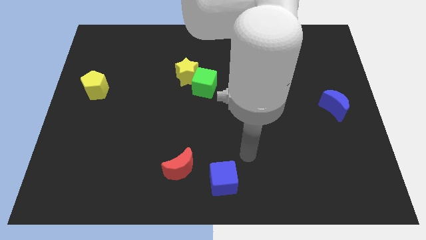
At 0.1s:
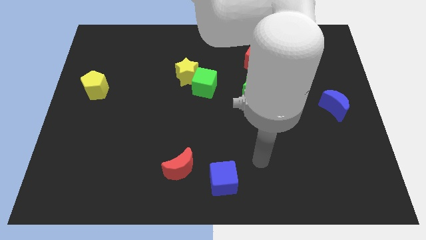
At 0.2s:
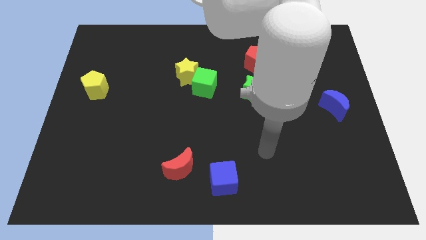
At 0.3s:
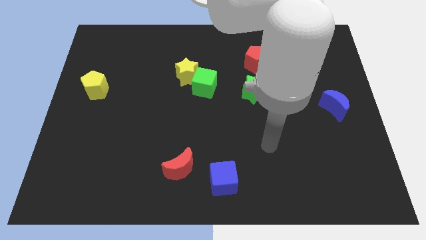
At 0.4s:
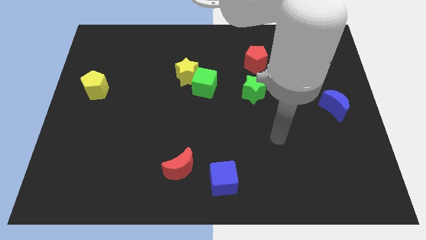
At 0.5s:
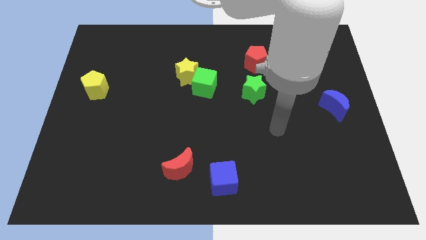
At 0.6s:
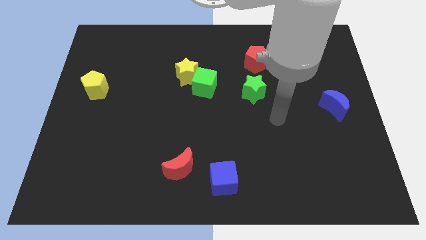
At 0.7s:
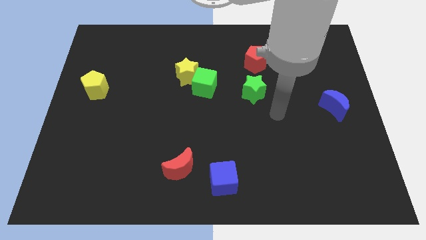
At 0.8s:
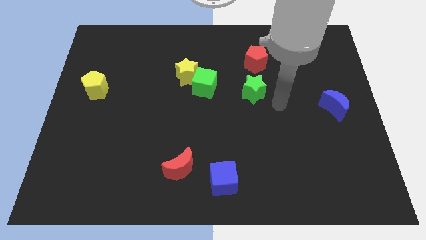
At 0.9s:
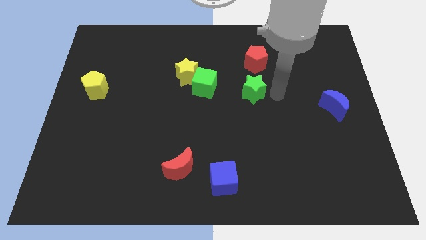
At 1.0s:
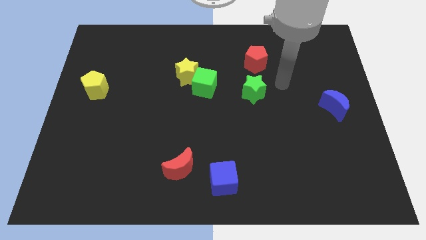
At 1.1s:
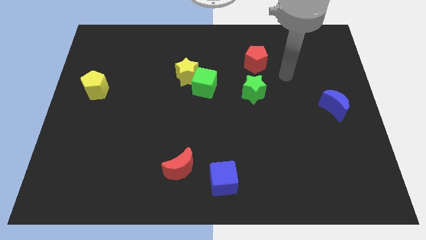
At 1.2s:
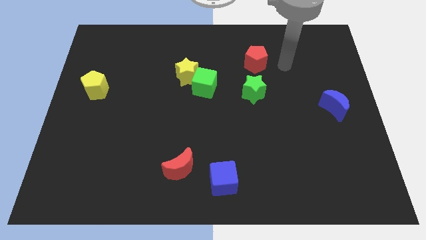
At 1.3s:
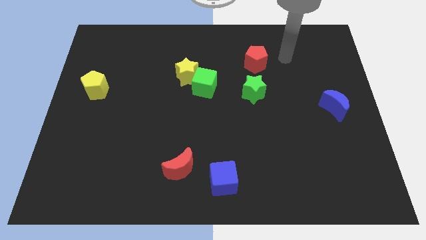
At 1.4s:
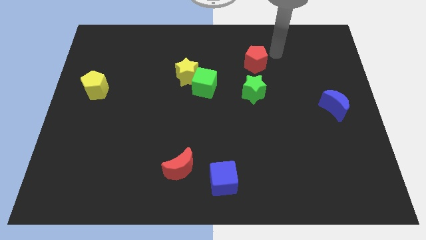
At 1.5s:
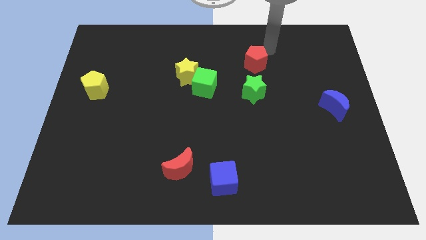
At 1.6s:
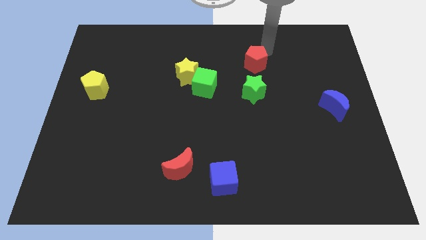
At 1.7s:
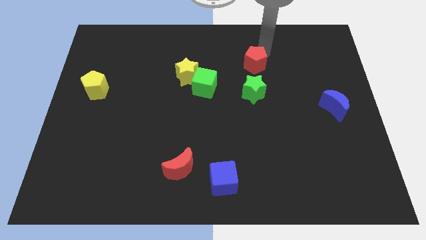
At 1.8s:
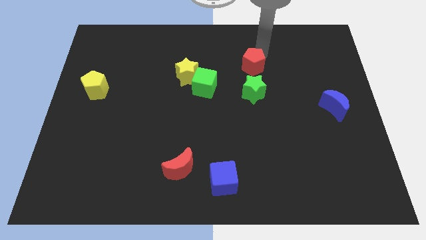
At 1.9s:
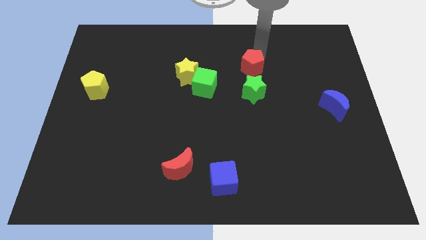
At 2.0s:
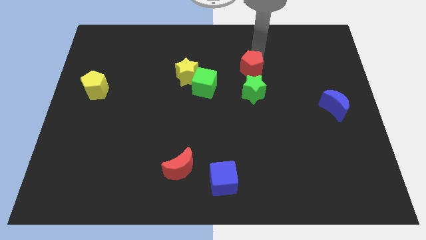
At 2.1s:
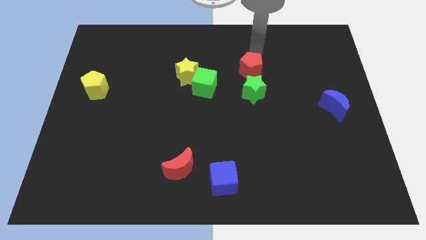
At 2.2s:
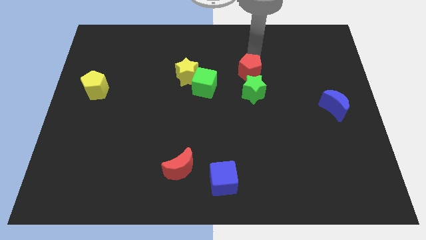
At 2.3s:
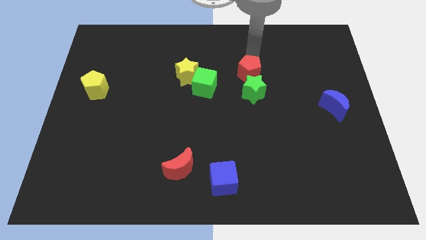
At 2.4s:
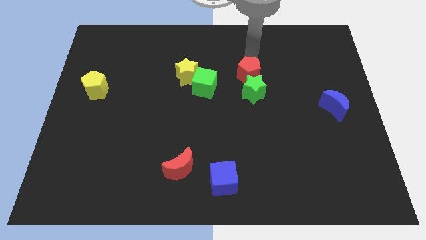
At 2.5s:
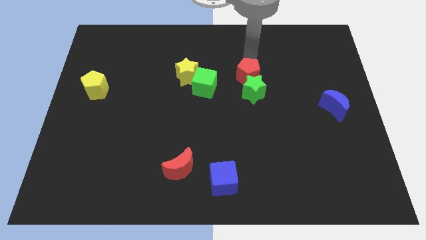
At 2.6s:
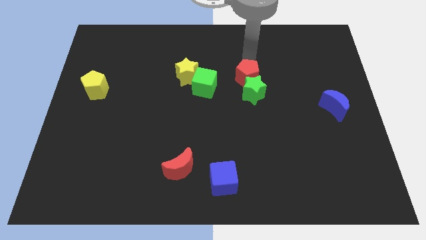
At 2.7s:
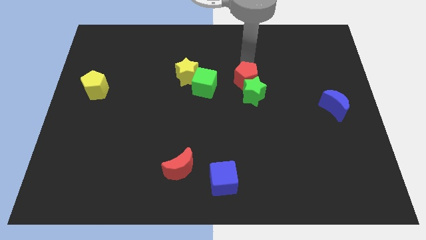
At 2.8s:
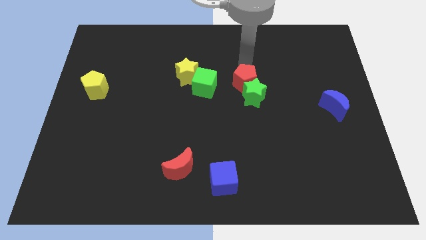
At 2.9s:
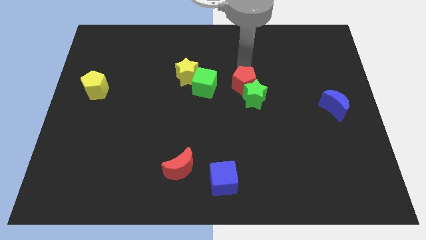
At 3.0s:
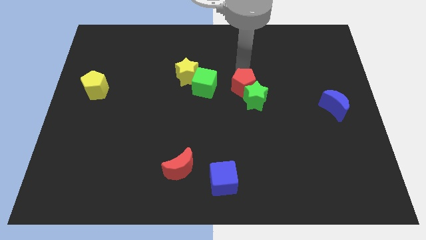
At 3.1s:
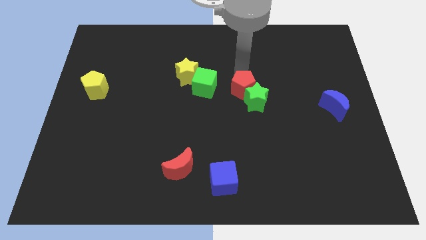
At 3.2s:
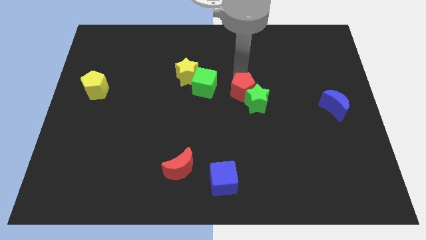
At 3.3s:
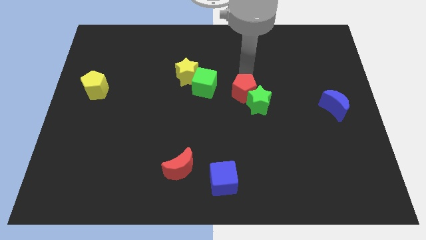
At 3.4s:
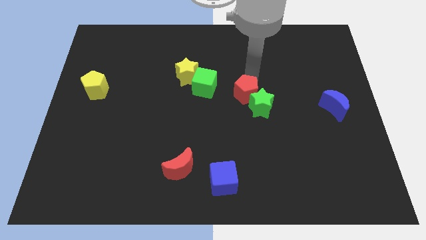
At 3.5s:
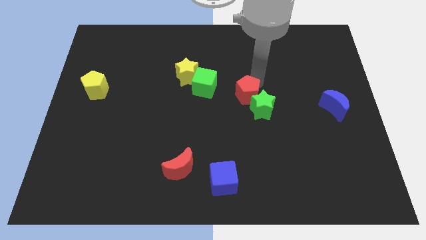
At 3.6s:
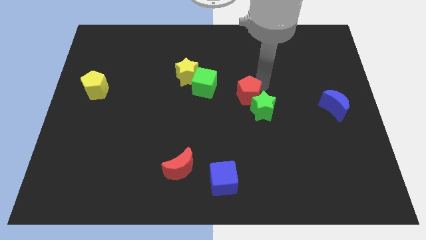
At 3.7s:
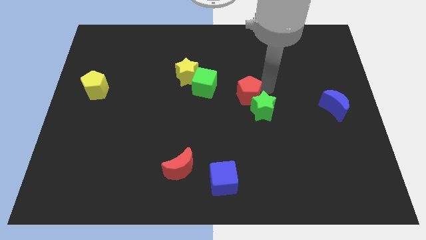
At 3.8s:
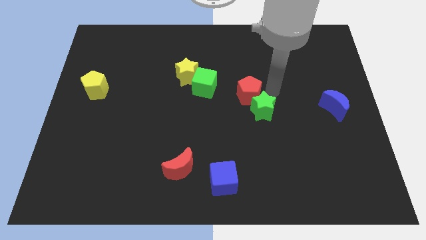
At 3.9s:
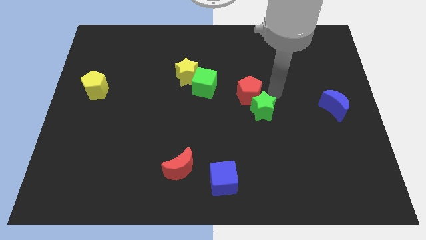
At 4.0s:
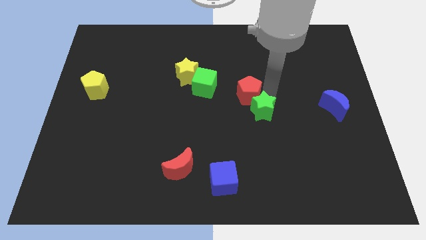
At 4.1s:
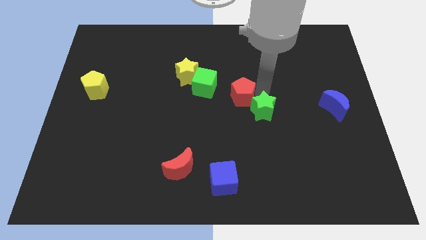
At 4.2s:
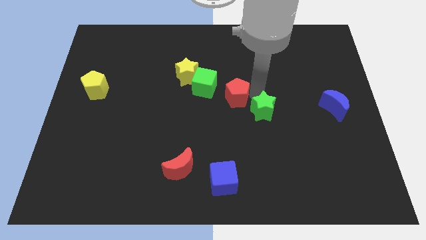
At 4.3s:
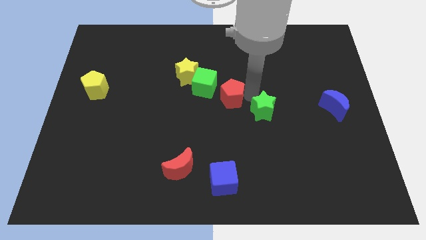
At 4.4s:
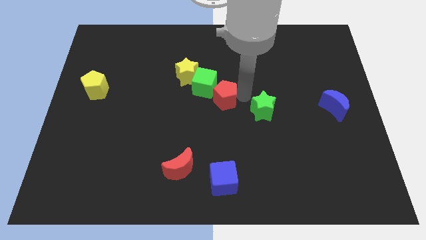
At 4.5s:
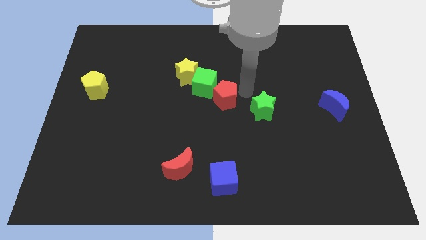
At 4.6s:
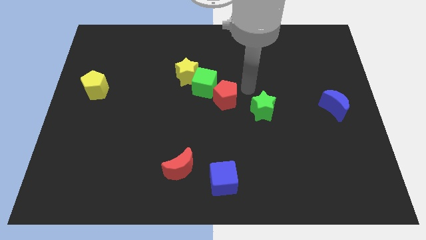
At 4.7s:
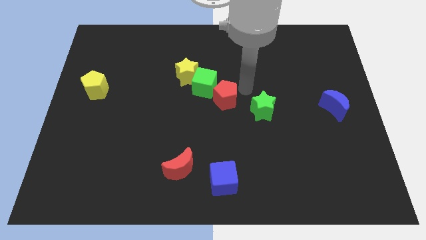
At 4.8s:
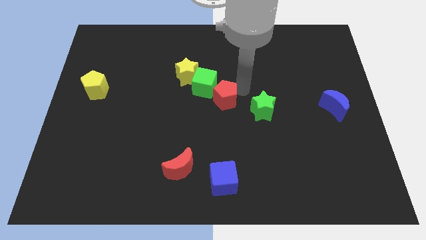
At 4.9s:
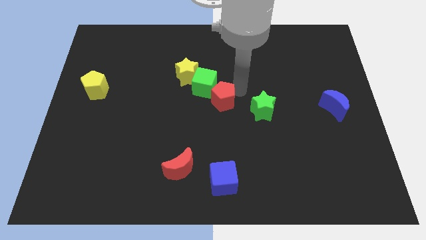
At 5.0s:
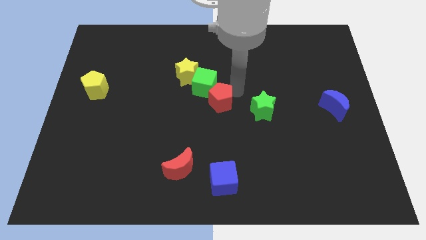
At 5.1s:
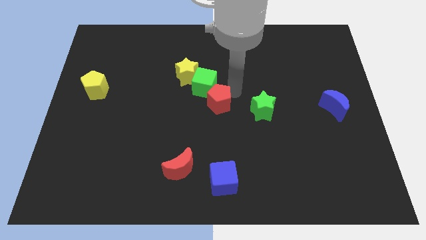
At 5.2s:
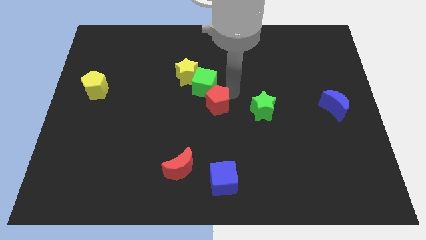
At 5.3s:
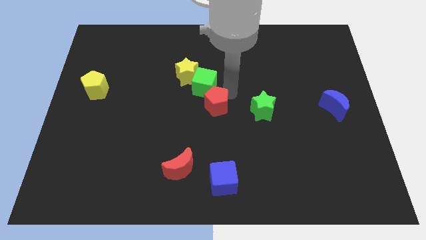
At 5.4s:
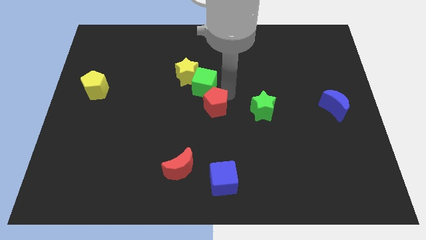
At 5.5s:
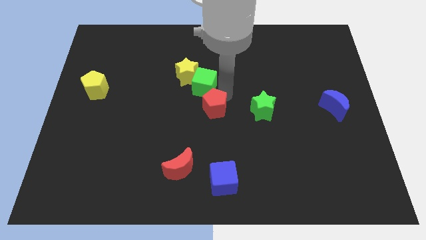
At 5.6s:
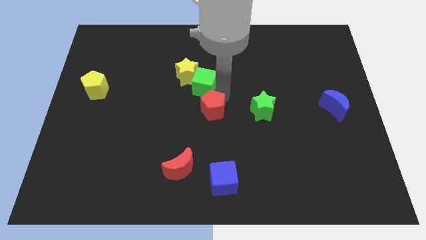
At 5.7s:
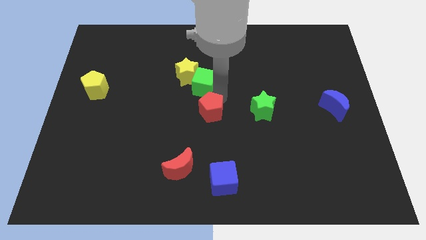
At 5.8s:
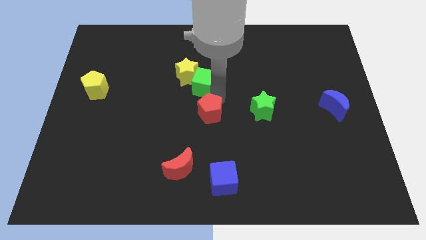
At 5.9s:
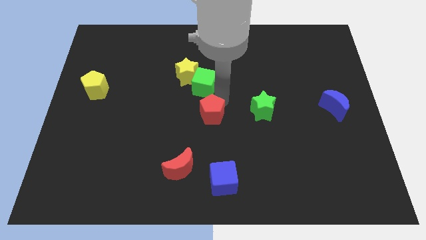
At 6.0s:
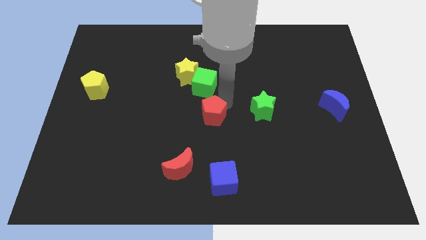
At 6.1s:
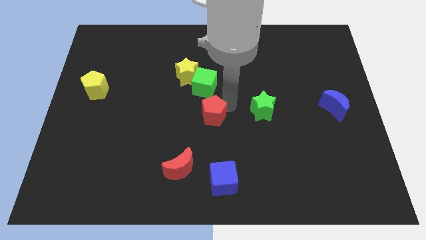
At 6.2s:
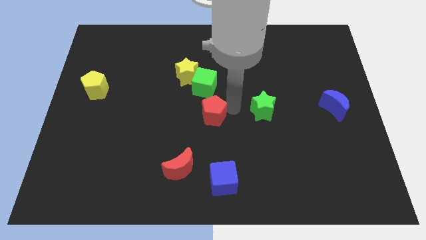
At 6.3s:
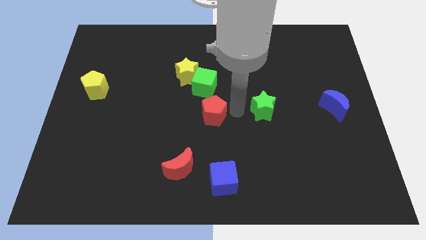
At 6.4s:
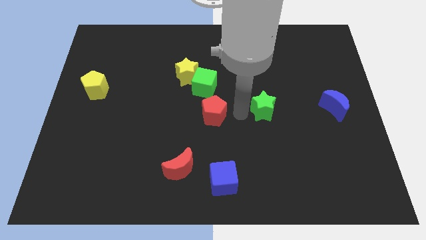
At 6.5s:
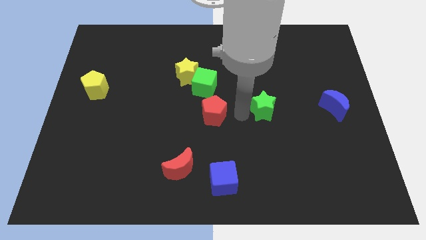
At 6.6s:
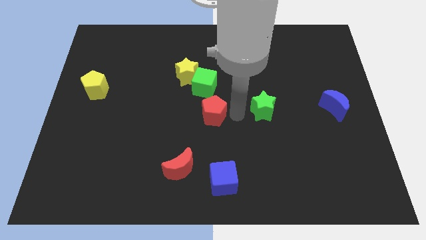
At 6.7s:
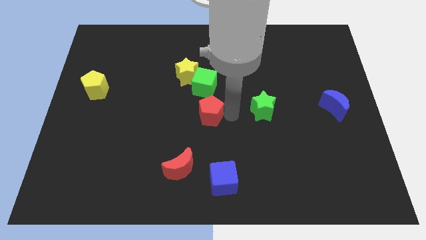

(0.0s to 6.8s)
push the red pentagon down and to the left diagonally

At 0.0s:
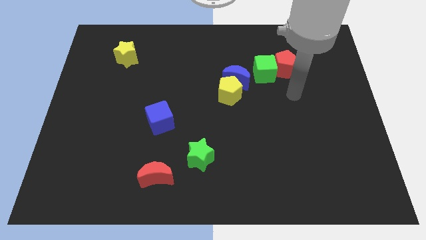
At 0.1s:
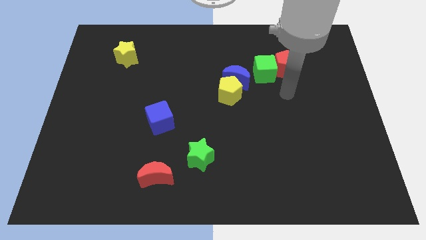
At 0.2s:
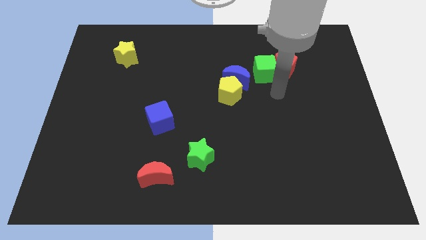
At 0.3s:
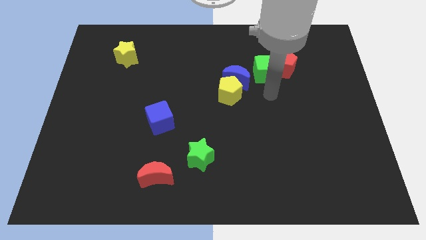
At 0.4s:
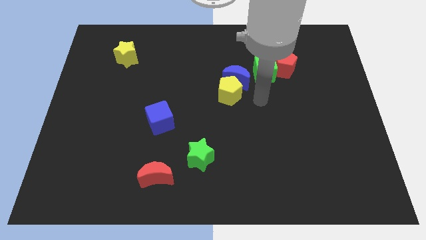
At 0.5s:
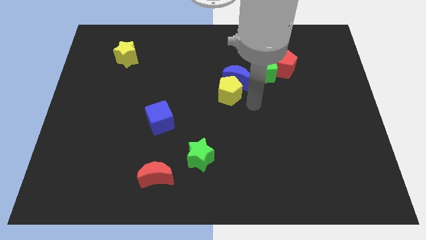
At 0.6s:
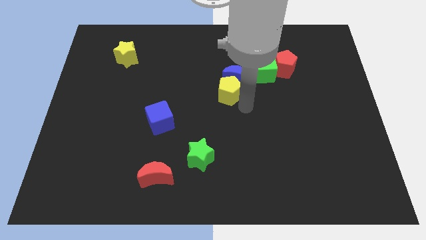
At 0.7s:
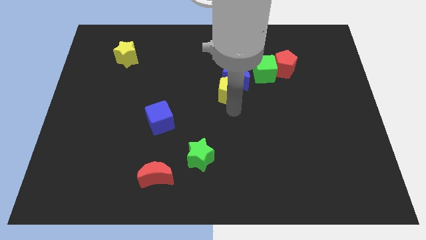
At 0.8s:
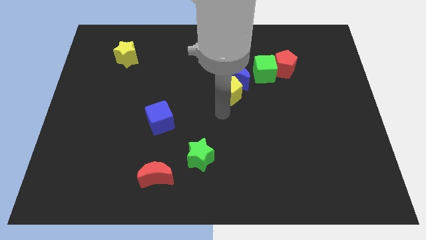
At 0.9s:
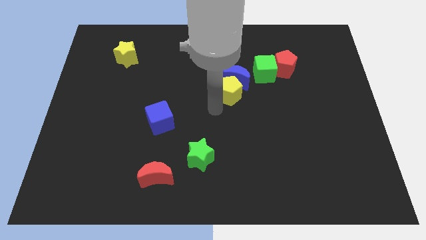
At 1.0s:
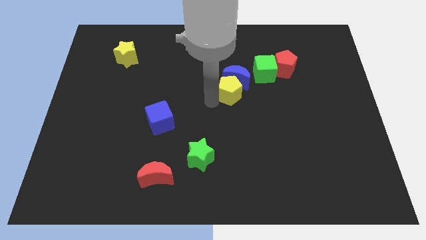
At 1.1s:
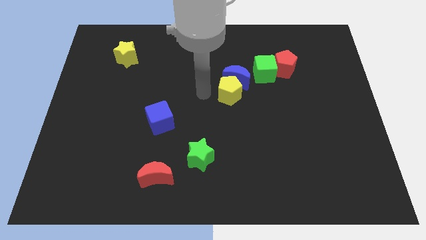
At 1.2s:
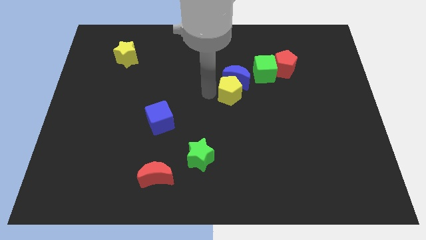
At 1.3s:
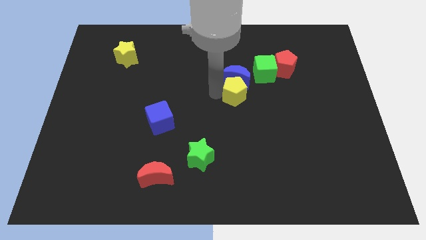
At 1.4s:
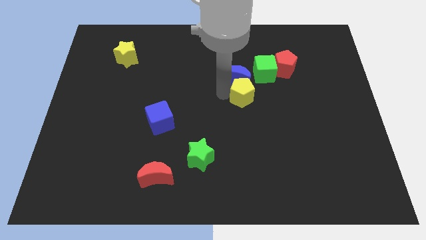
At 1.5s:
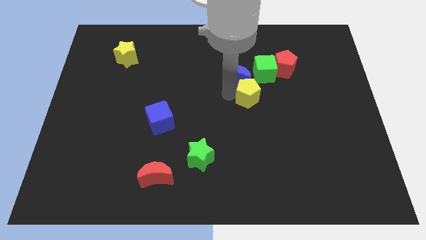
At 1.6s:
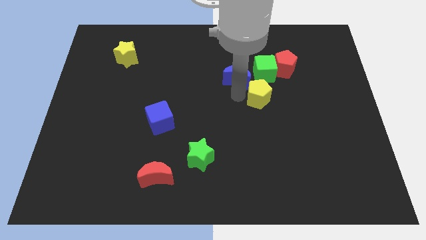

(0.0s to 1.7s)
slightly push the yellow pentagon to the right

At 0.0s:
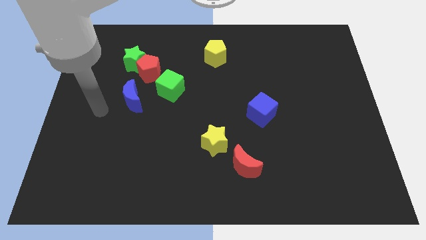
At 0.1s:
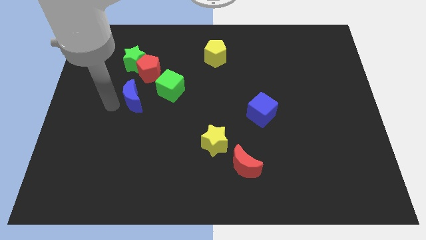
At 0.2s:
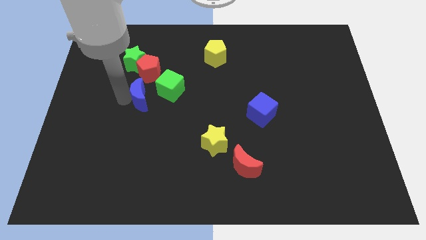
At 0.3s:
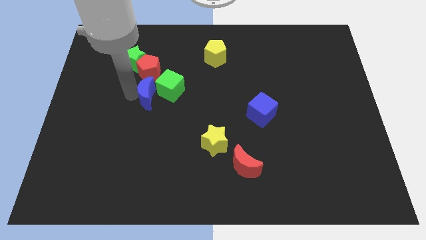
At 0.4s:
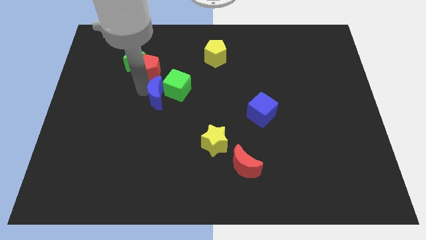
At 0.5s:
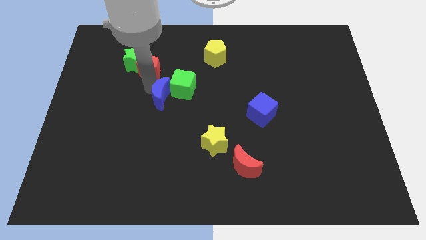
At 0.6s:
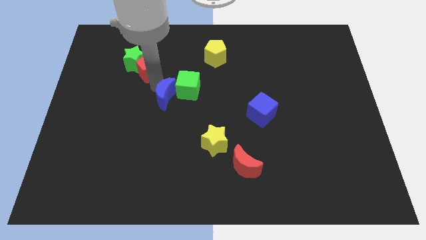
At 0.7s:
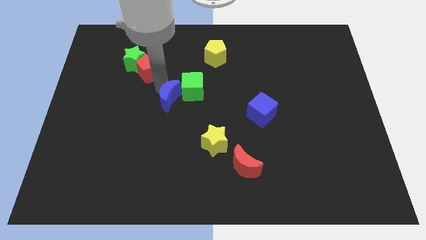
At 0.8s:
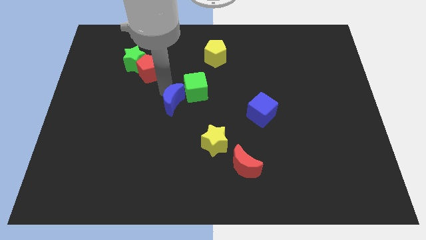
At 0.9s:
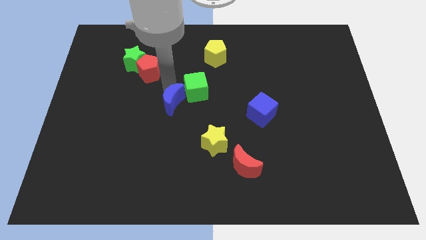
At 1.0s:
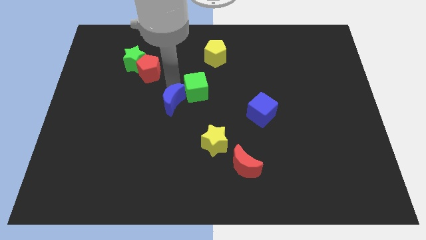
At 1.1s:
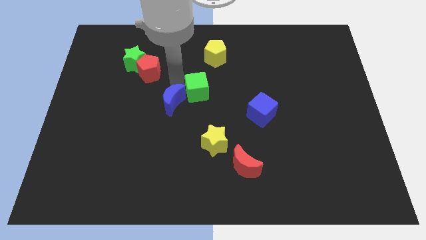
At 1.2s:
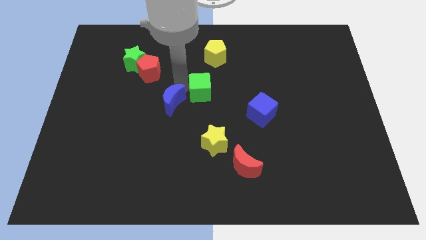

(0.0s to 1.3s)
slightly slide the green cube to the right
